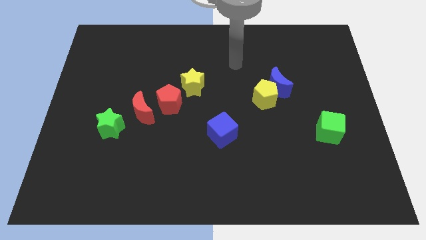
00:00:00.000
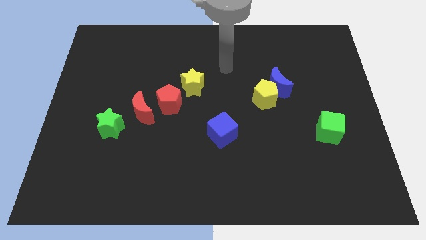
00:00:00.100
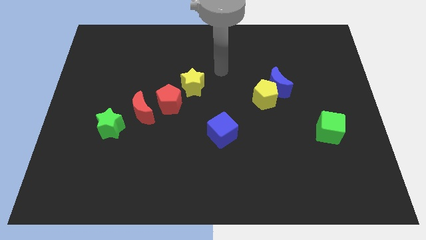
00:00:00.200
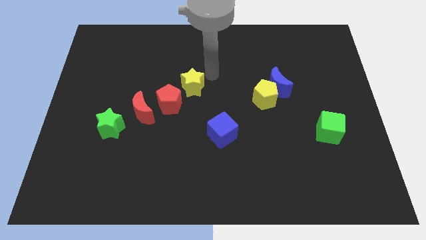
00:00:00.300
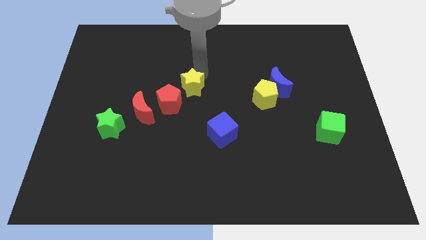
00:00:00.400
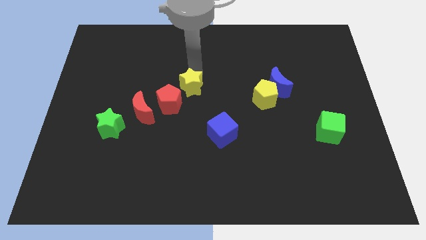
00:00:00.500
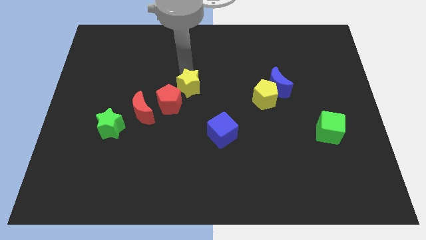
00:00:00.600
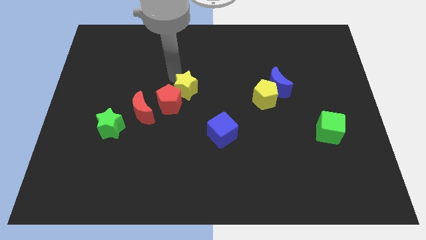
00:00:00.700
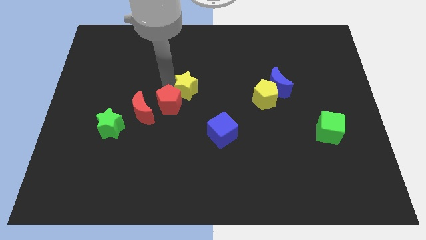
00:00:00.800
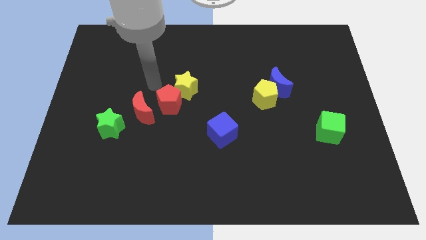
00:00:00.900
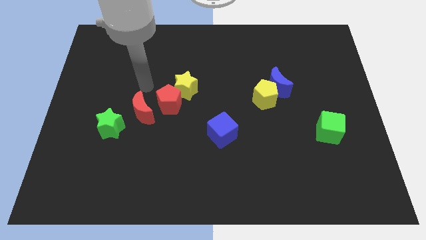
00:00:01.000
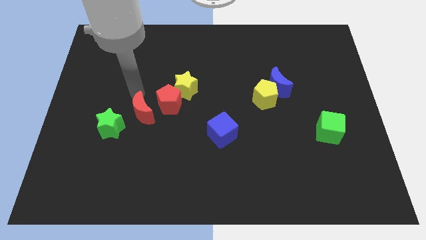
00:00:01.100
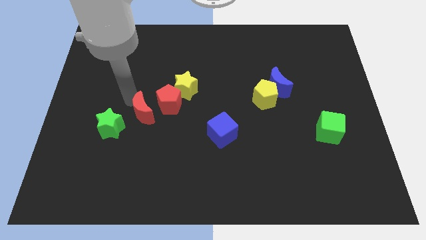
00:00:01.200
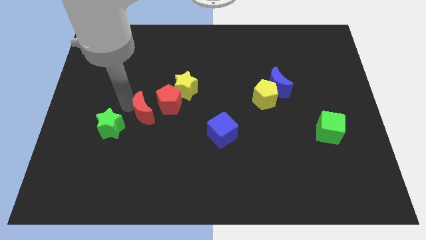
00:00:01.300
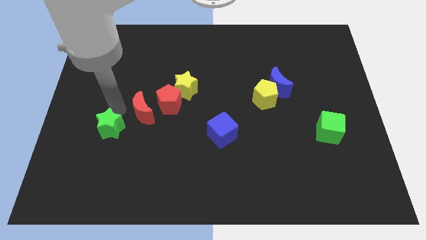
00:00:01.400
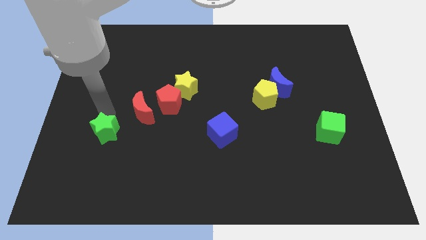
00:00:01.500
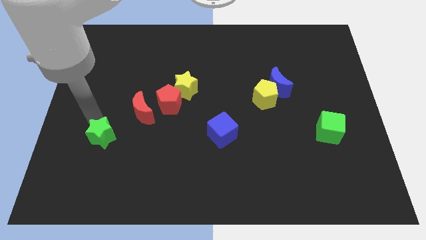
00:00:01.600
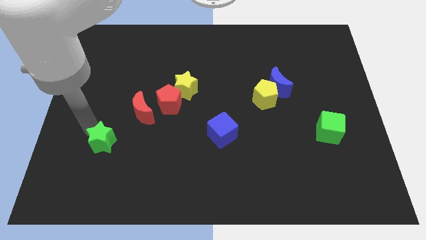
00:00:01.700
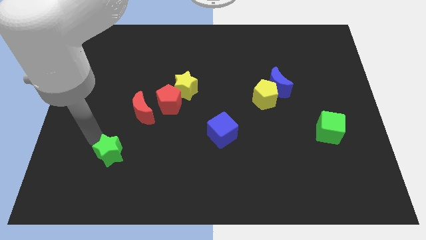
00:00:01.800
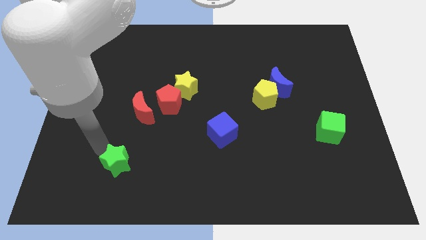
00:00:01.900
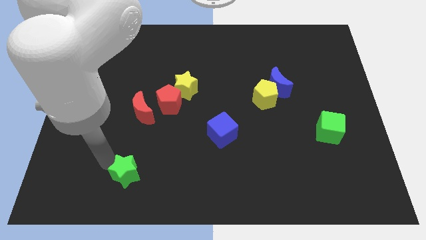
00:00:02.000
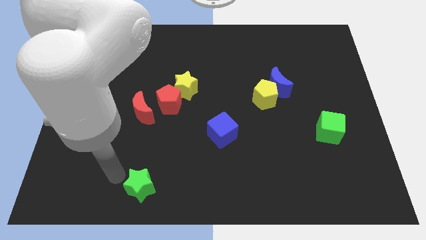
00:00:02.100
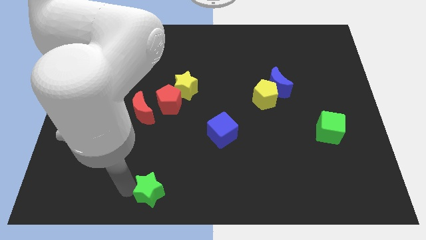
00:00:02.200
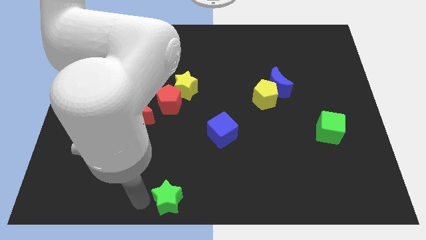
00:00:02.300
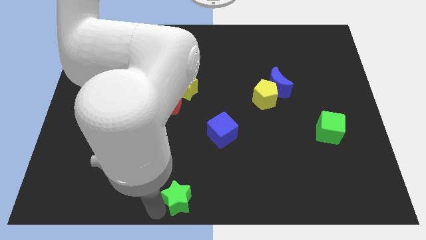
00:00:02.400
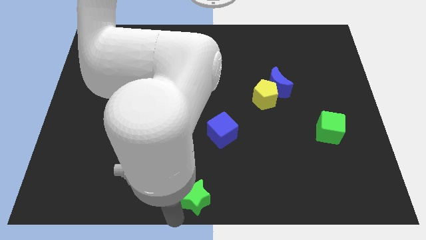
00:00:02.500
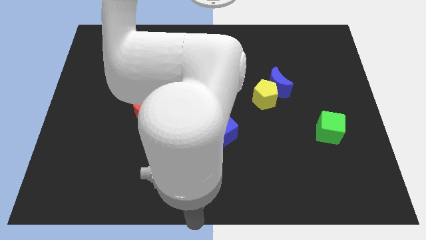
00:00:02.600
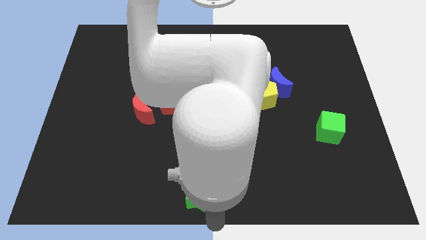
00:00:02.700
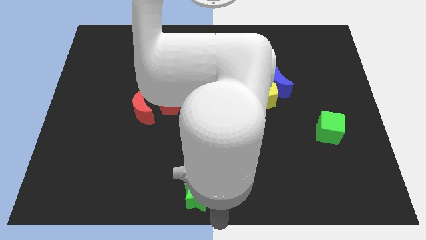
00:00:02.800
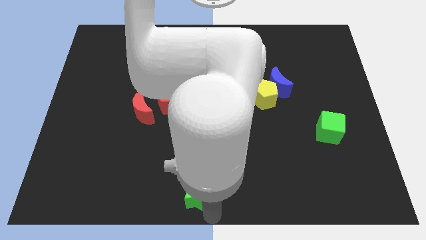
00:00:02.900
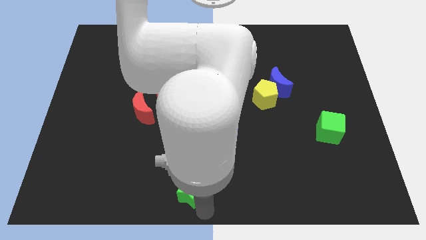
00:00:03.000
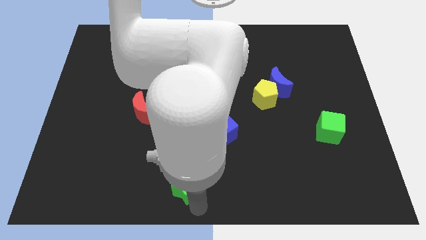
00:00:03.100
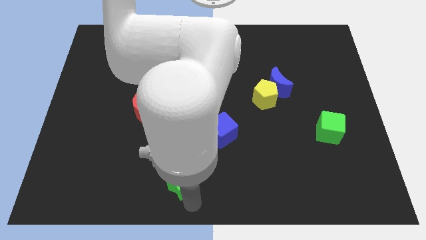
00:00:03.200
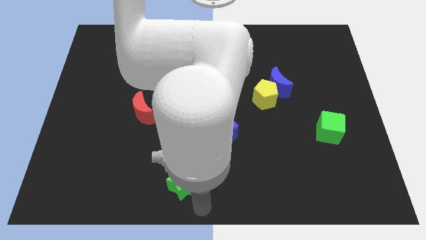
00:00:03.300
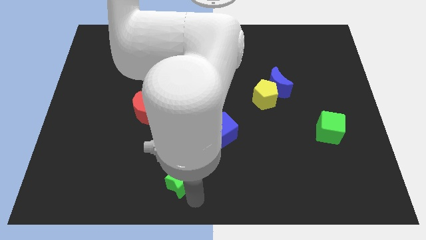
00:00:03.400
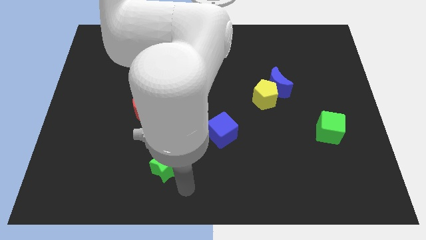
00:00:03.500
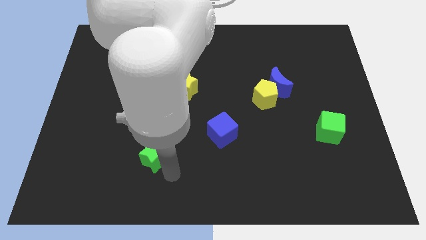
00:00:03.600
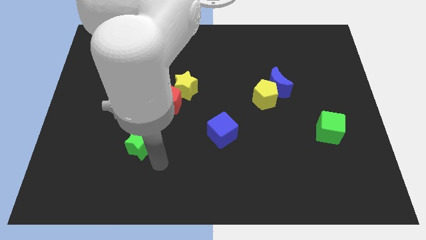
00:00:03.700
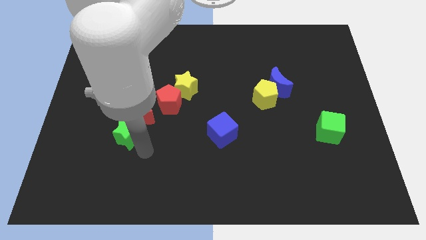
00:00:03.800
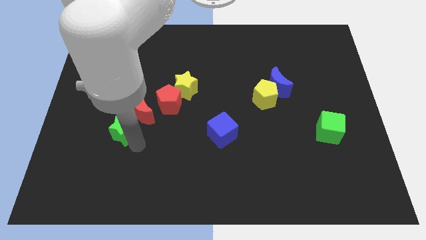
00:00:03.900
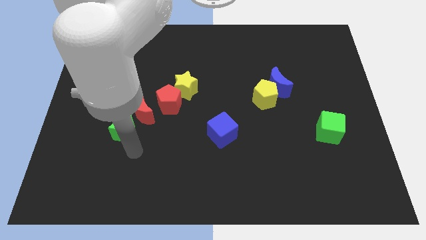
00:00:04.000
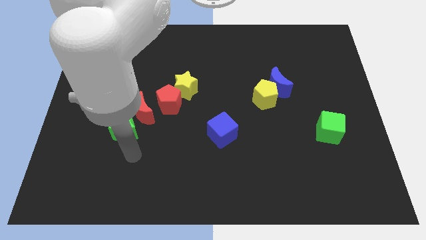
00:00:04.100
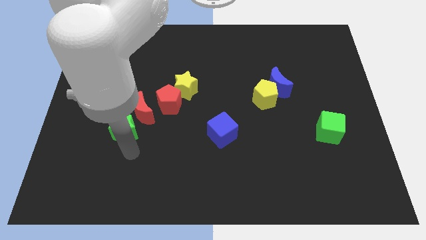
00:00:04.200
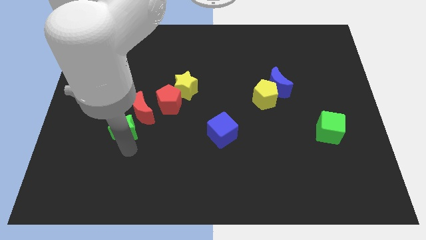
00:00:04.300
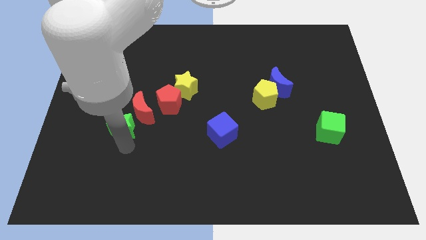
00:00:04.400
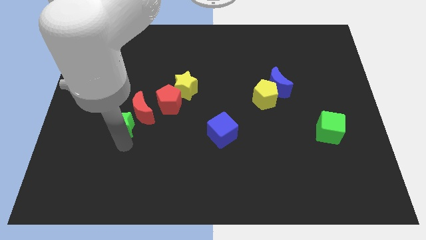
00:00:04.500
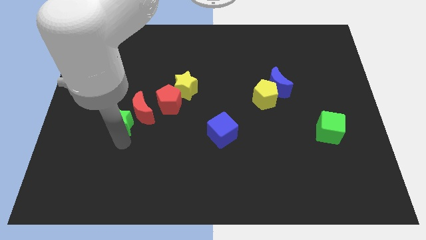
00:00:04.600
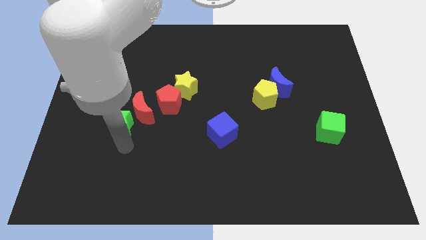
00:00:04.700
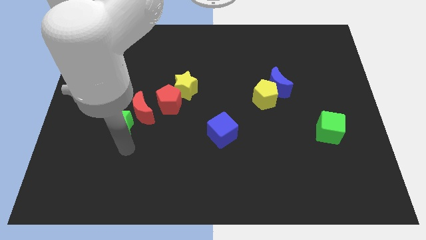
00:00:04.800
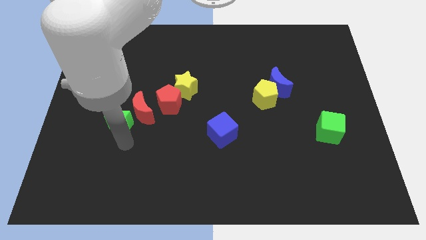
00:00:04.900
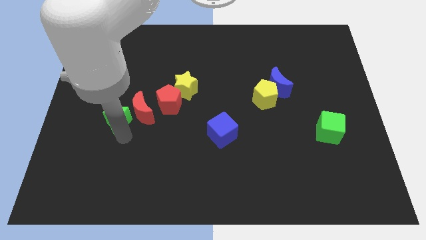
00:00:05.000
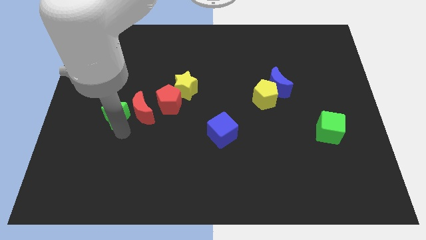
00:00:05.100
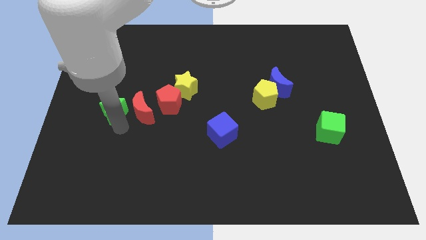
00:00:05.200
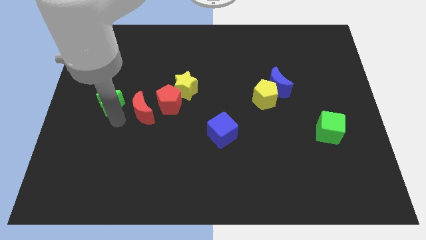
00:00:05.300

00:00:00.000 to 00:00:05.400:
push the green star a bit up

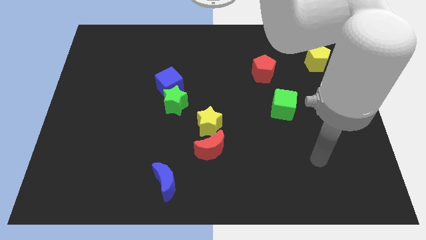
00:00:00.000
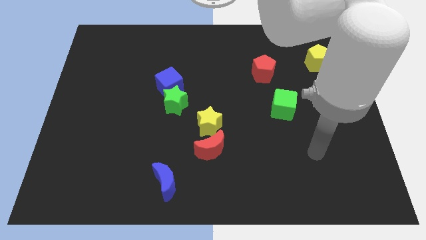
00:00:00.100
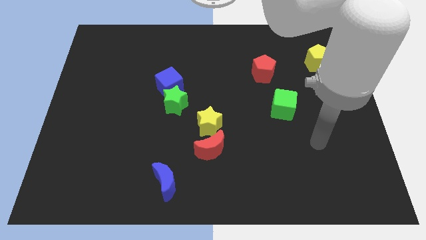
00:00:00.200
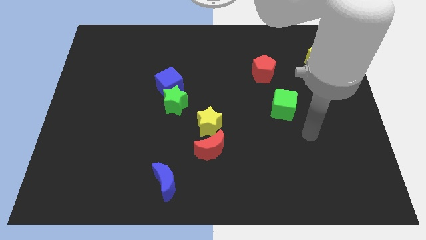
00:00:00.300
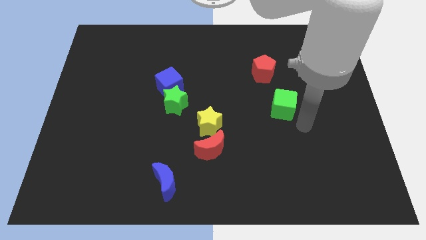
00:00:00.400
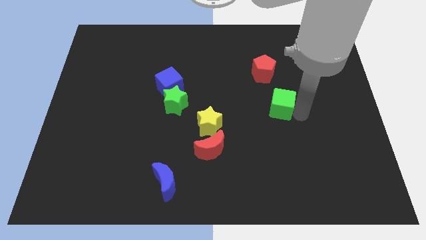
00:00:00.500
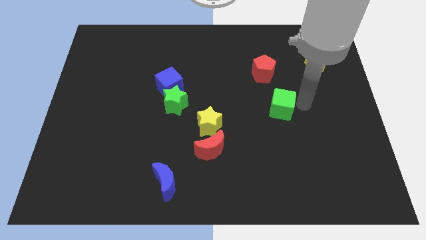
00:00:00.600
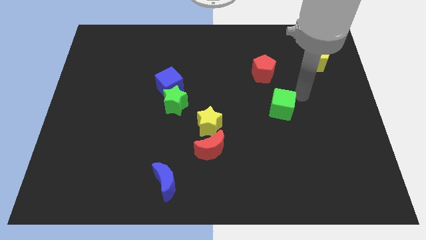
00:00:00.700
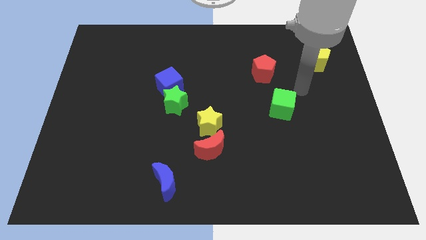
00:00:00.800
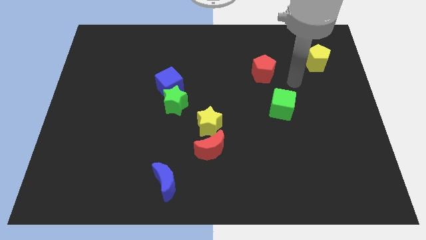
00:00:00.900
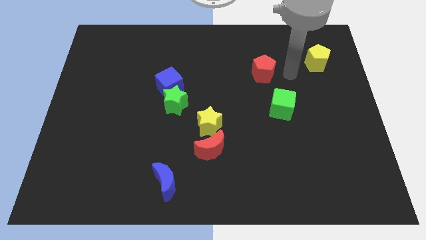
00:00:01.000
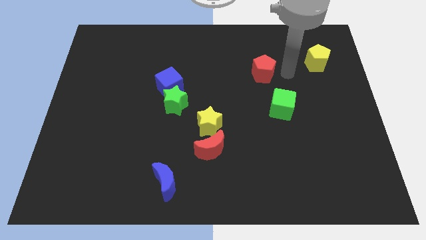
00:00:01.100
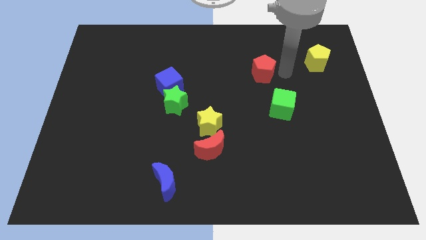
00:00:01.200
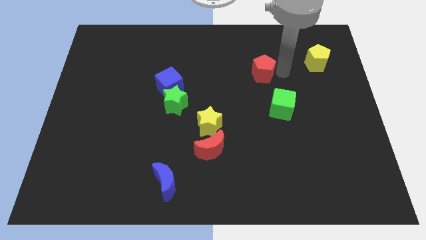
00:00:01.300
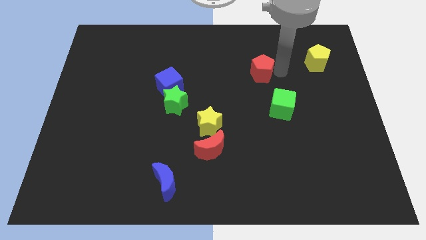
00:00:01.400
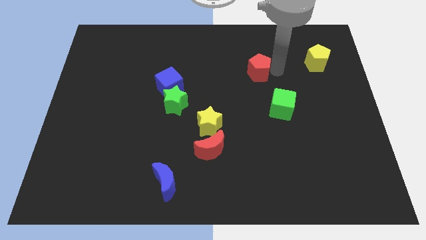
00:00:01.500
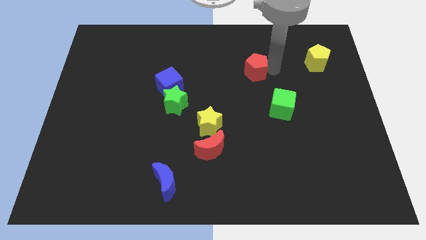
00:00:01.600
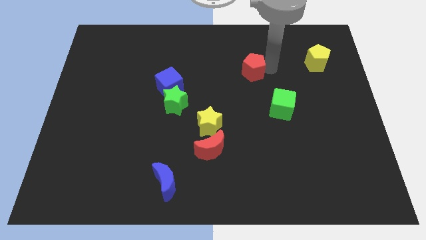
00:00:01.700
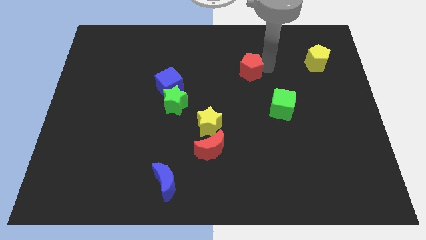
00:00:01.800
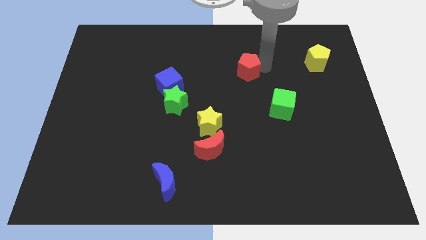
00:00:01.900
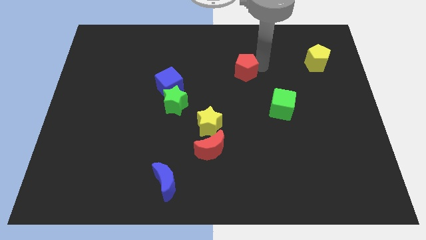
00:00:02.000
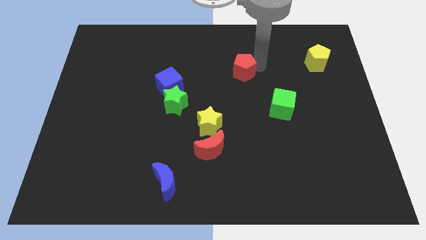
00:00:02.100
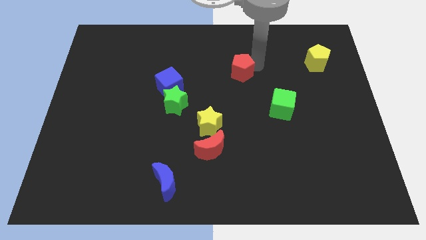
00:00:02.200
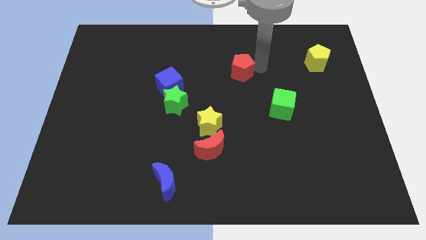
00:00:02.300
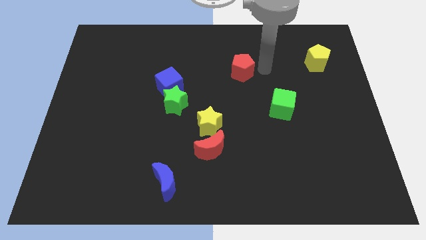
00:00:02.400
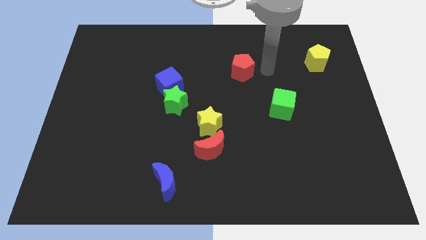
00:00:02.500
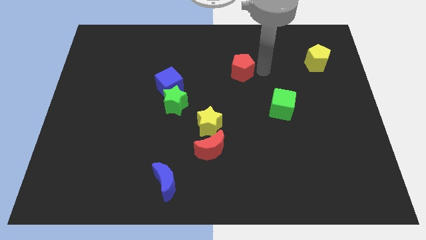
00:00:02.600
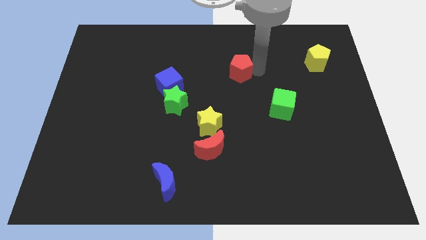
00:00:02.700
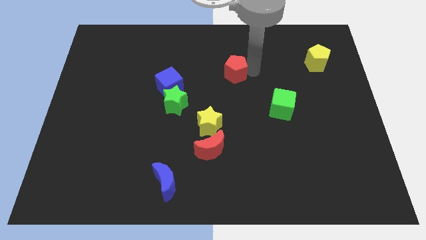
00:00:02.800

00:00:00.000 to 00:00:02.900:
slide the red pentagon left a bit
